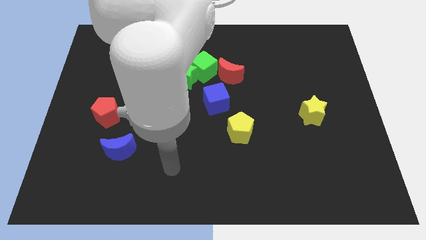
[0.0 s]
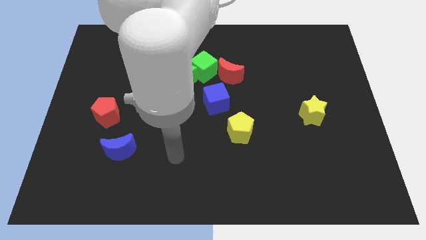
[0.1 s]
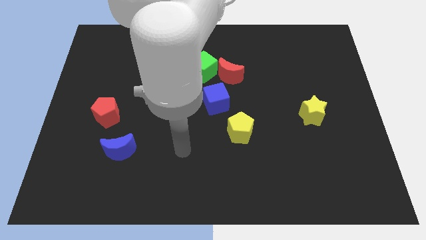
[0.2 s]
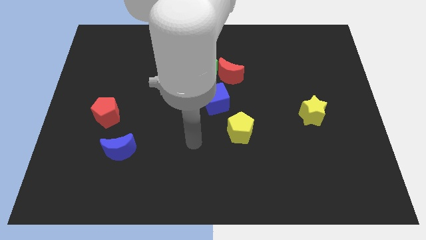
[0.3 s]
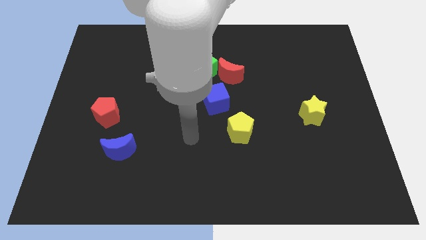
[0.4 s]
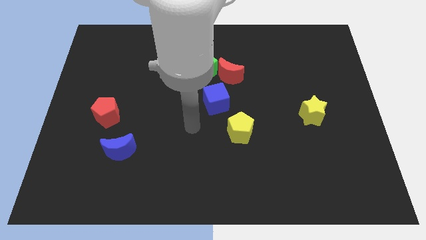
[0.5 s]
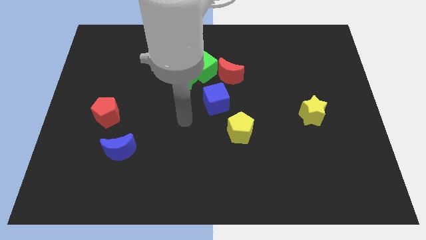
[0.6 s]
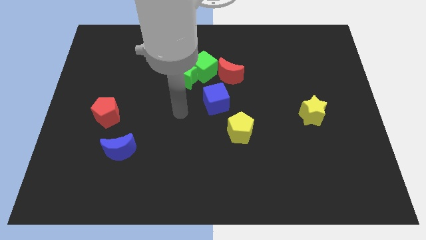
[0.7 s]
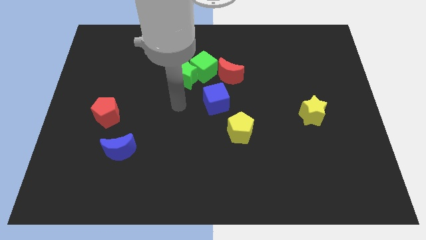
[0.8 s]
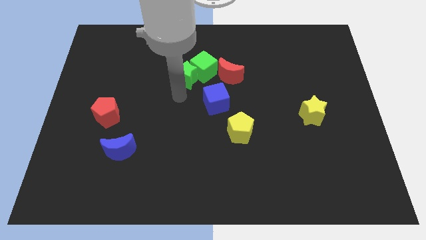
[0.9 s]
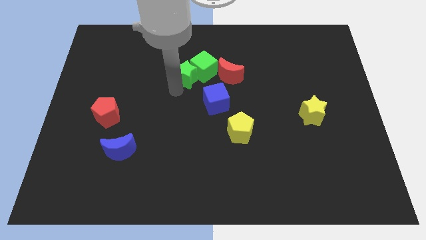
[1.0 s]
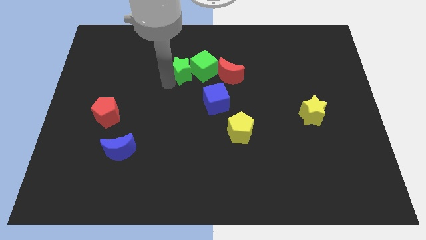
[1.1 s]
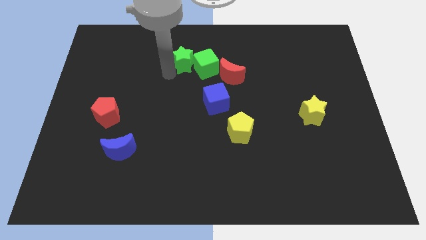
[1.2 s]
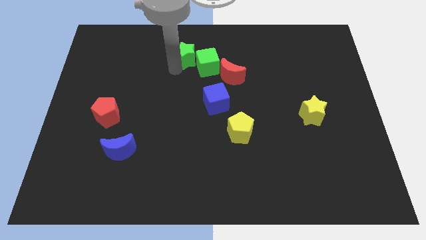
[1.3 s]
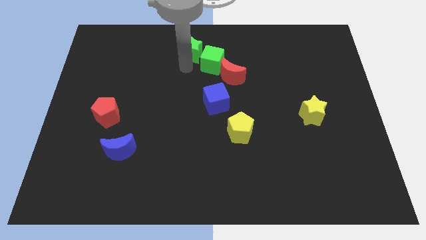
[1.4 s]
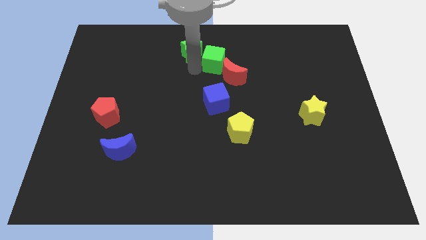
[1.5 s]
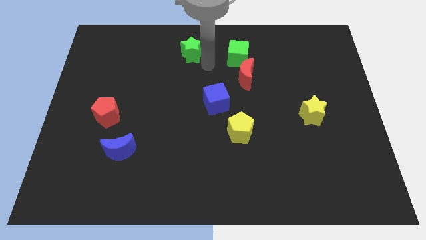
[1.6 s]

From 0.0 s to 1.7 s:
separate the green star from the green cube

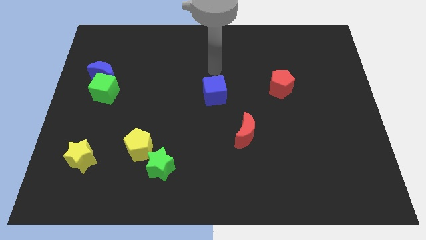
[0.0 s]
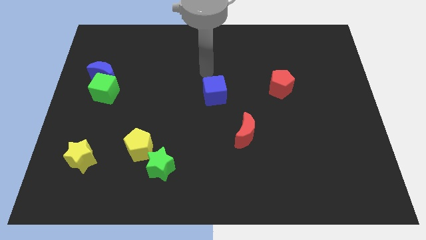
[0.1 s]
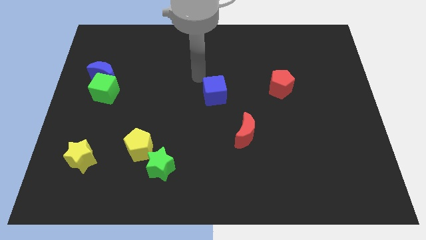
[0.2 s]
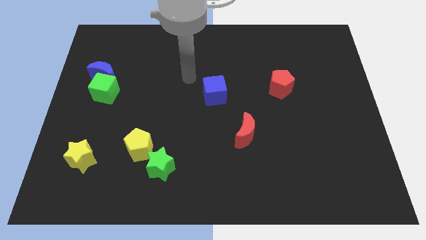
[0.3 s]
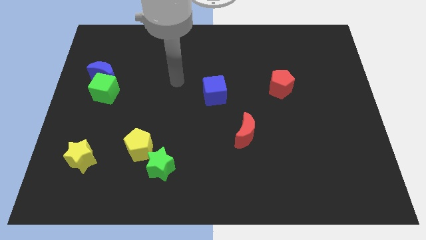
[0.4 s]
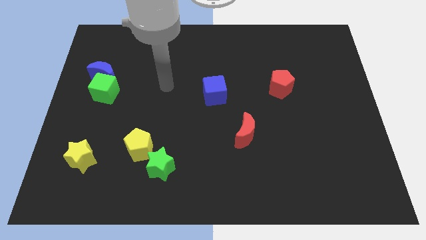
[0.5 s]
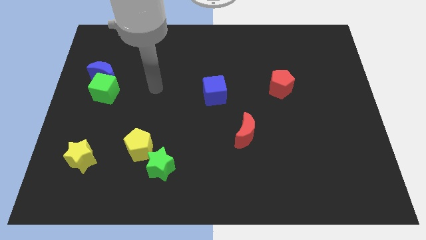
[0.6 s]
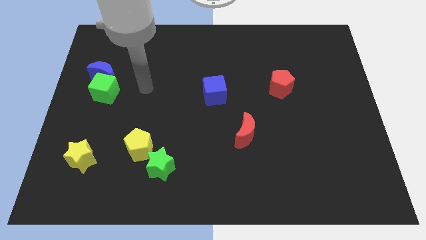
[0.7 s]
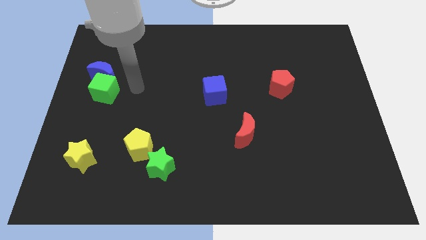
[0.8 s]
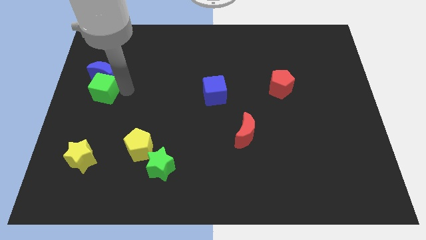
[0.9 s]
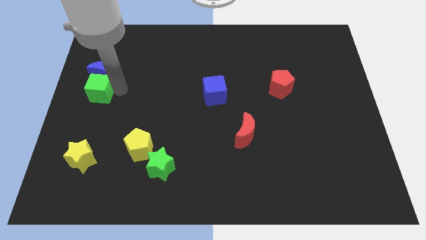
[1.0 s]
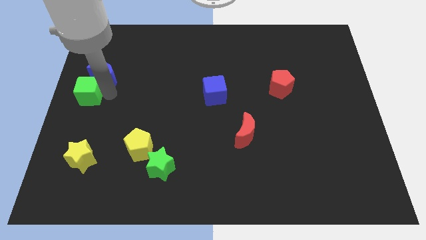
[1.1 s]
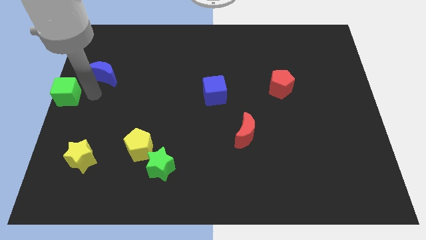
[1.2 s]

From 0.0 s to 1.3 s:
pull the blue moon apart from the green cube

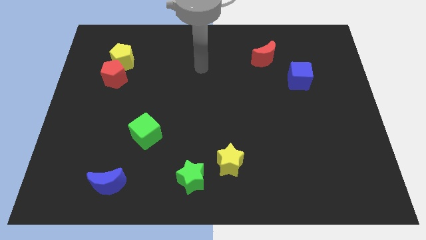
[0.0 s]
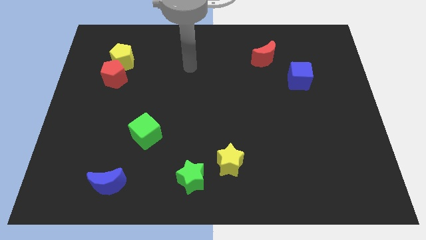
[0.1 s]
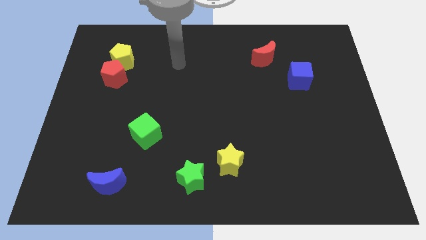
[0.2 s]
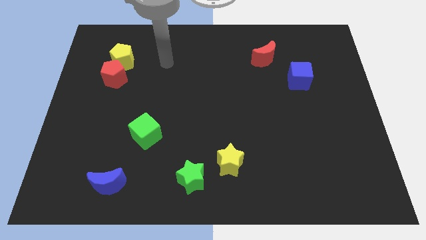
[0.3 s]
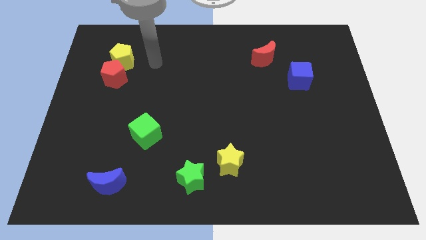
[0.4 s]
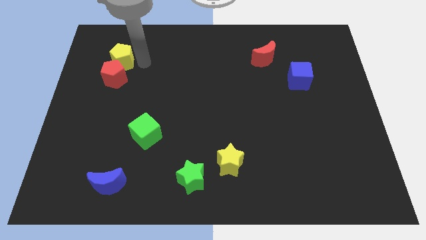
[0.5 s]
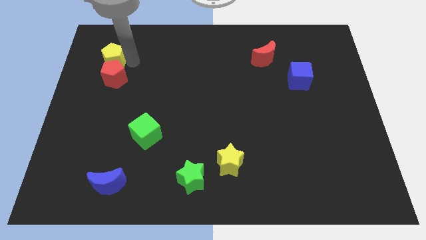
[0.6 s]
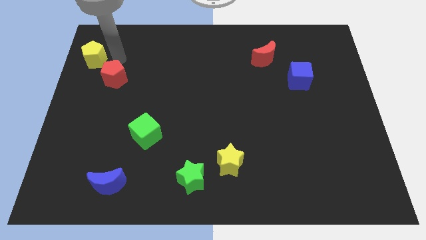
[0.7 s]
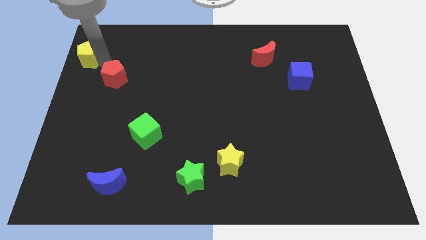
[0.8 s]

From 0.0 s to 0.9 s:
move the red pentagon away from the yellow pentagon

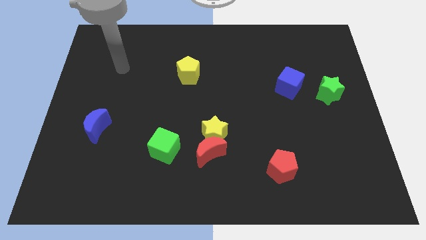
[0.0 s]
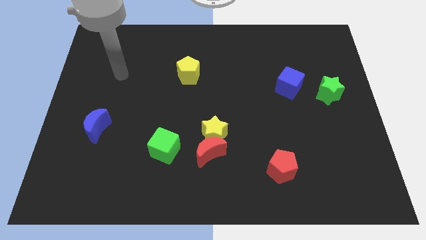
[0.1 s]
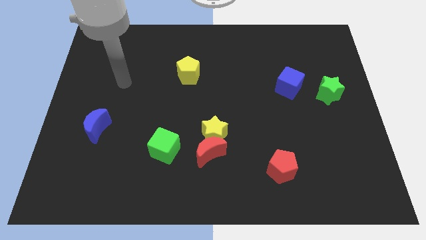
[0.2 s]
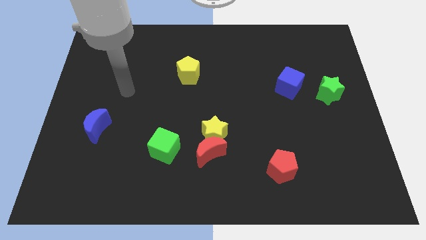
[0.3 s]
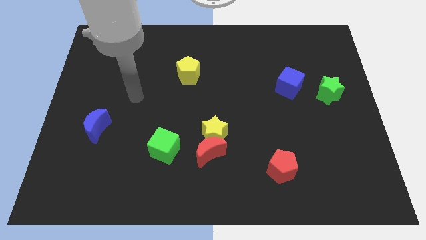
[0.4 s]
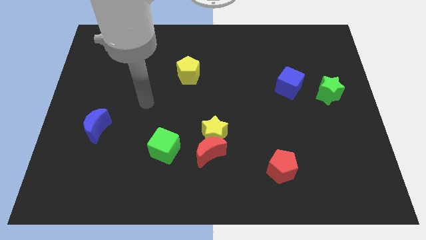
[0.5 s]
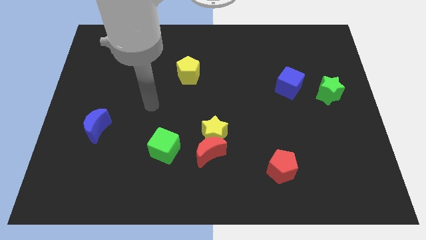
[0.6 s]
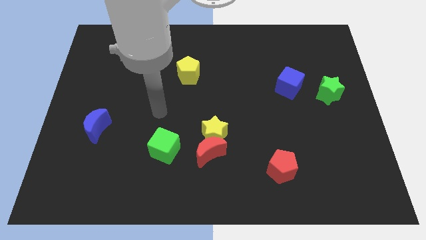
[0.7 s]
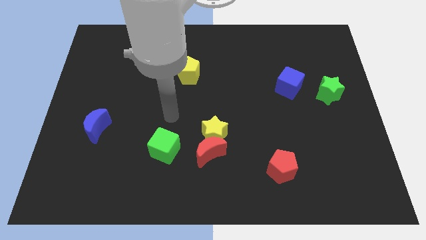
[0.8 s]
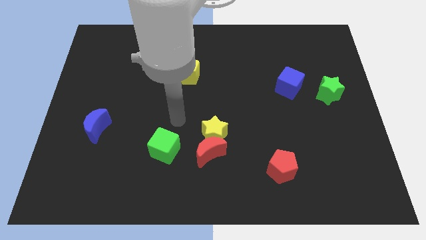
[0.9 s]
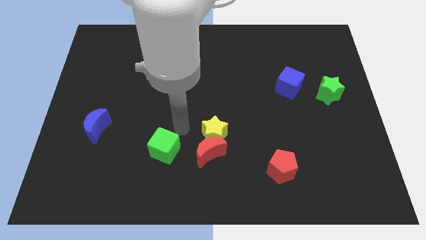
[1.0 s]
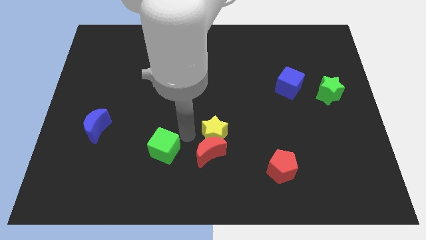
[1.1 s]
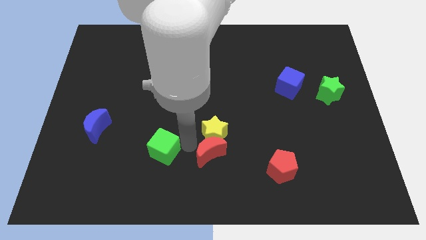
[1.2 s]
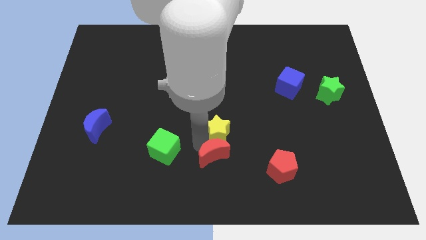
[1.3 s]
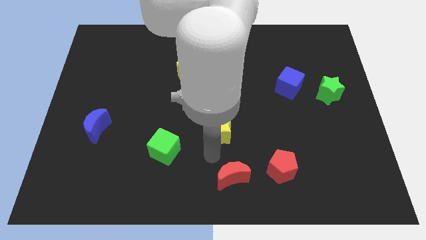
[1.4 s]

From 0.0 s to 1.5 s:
pull the yellow star apart from the red moon

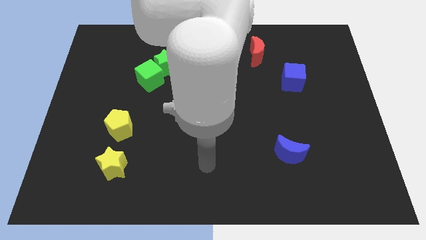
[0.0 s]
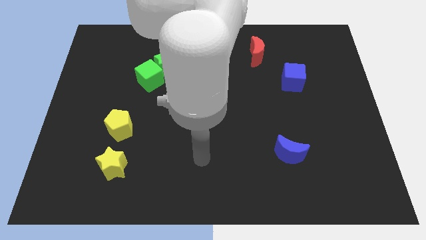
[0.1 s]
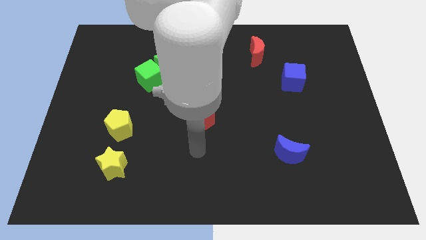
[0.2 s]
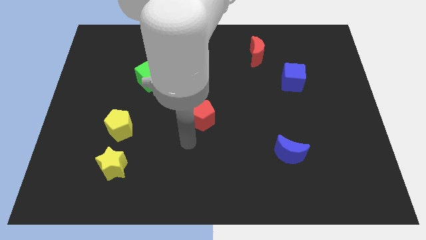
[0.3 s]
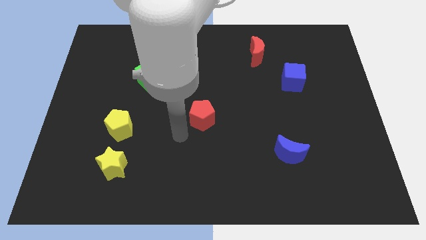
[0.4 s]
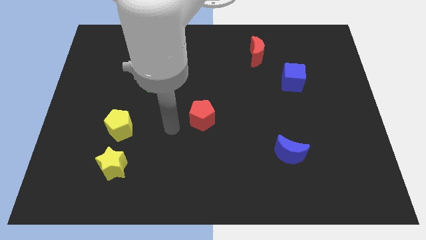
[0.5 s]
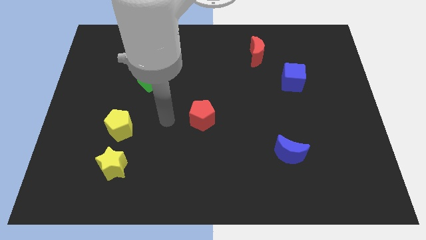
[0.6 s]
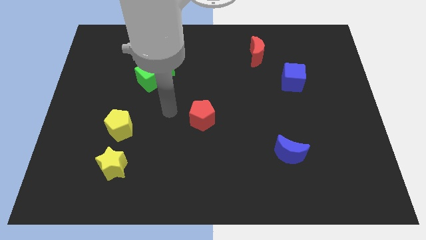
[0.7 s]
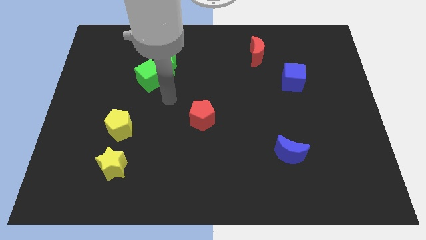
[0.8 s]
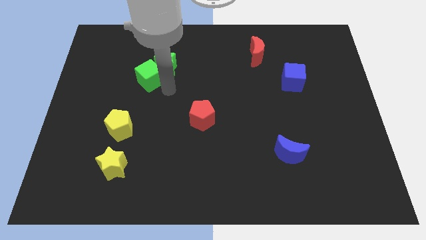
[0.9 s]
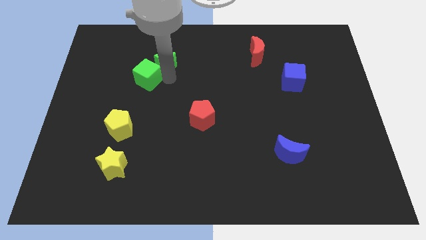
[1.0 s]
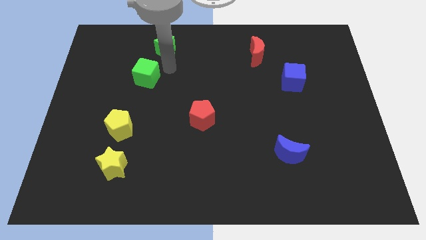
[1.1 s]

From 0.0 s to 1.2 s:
move the green cube away from the green star

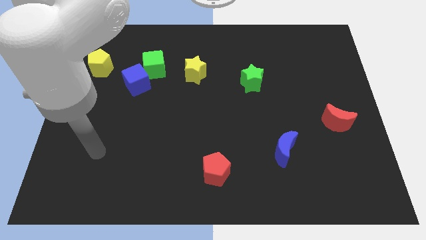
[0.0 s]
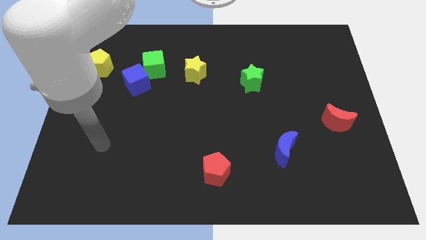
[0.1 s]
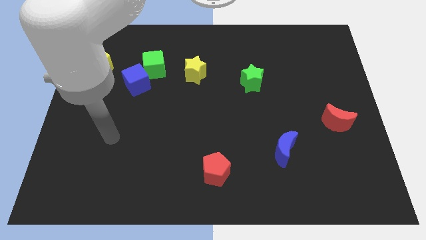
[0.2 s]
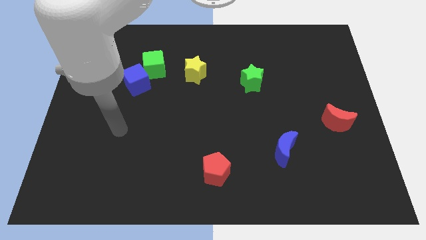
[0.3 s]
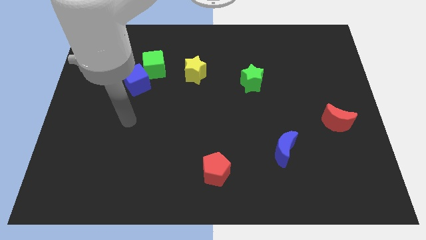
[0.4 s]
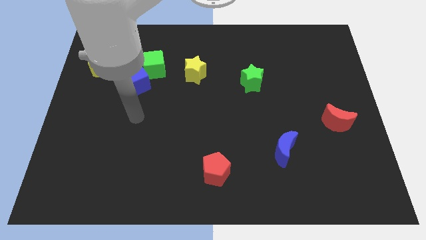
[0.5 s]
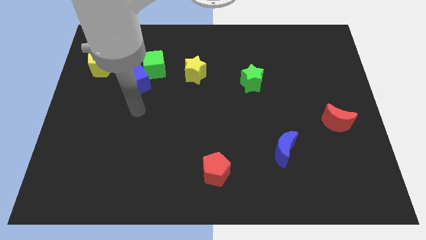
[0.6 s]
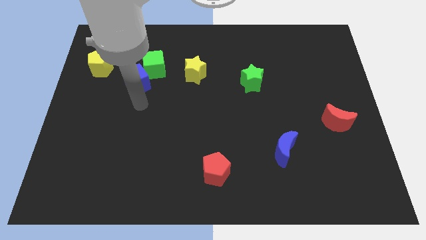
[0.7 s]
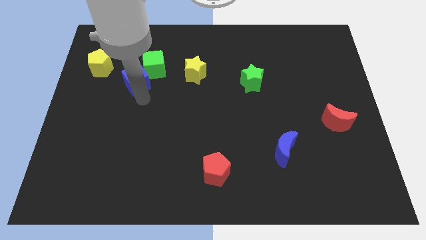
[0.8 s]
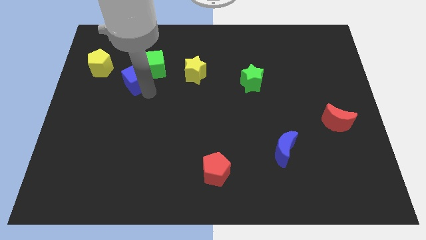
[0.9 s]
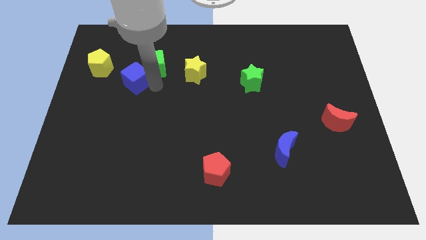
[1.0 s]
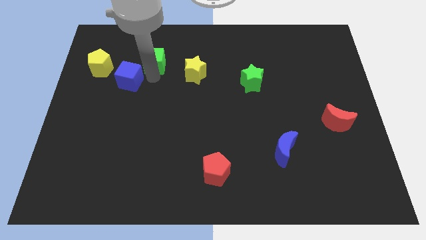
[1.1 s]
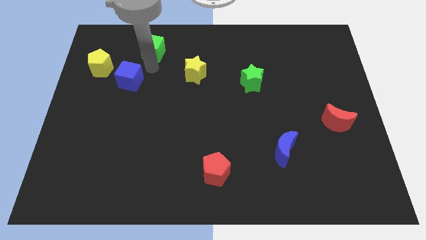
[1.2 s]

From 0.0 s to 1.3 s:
move the blue cube away from the green cube

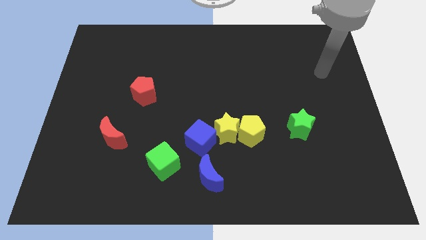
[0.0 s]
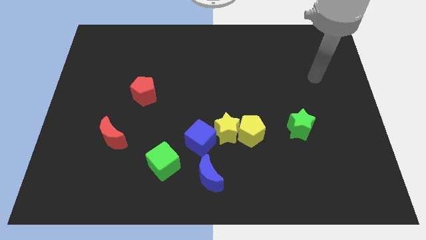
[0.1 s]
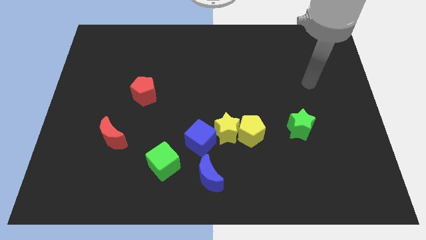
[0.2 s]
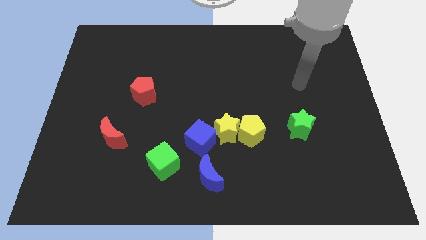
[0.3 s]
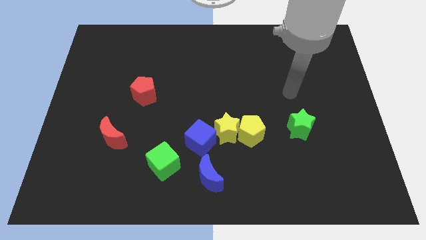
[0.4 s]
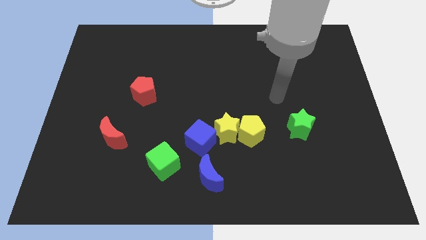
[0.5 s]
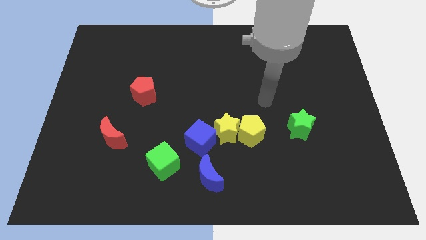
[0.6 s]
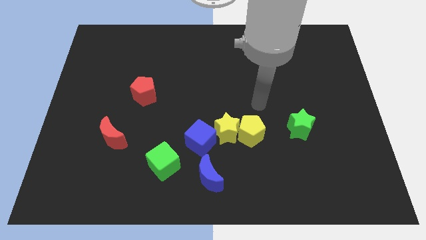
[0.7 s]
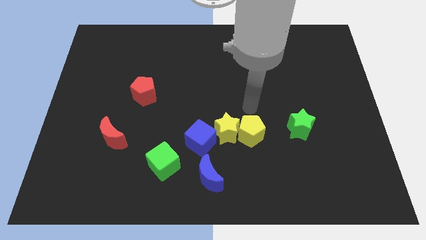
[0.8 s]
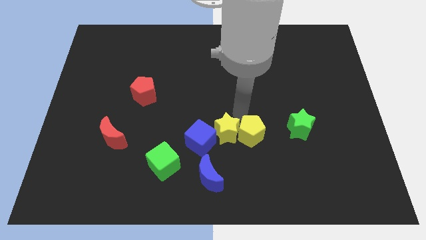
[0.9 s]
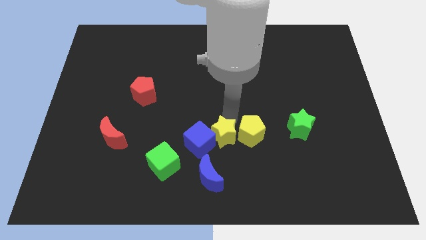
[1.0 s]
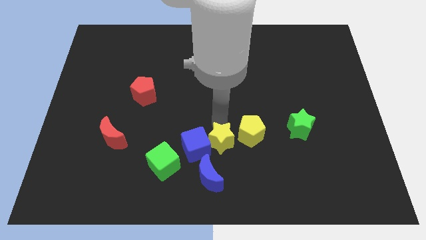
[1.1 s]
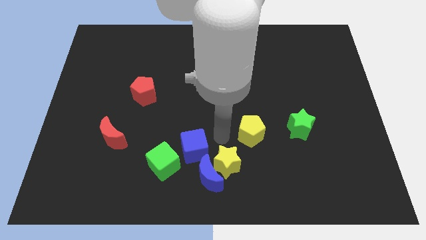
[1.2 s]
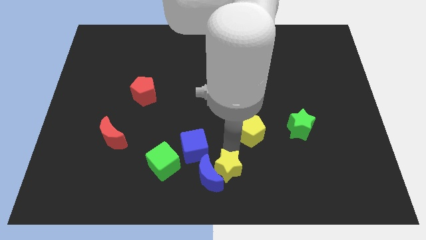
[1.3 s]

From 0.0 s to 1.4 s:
pull the yellow pentagon apart from the yellow star
